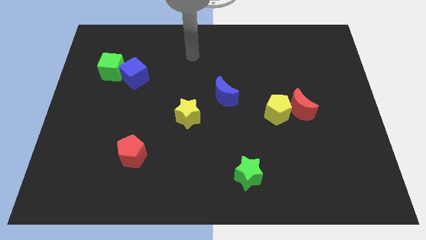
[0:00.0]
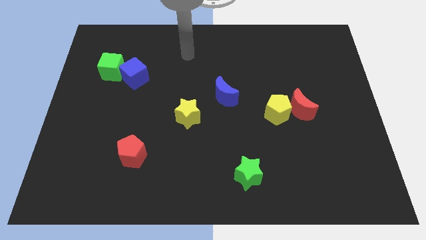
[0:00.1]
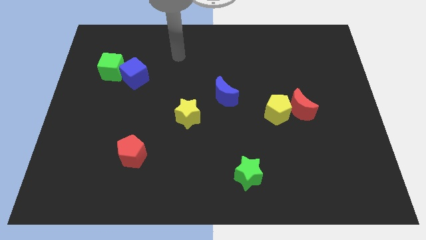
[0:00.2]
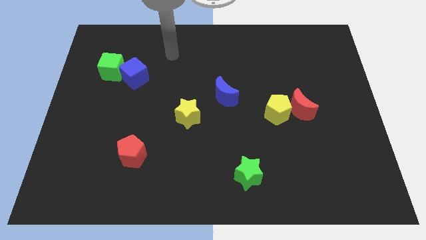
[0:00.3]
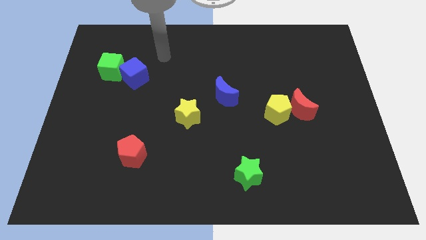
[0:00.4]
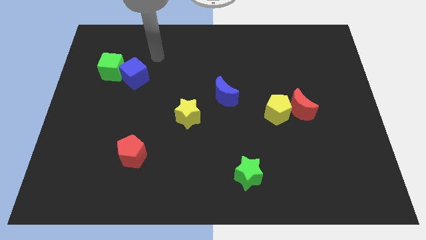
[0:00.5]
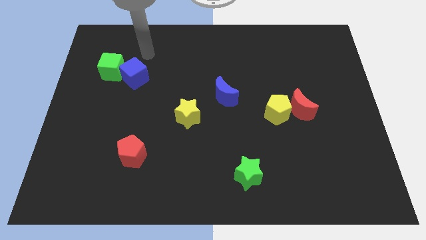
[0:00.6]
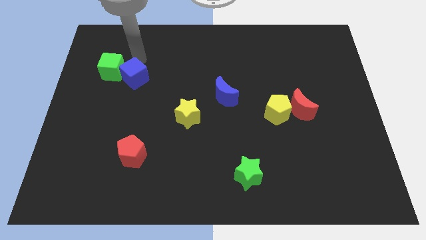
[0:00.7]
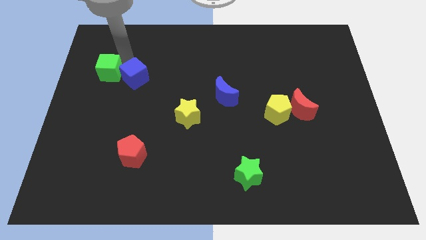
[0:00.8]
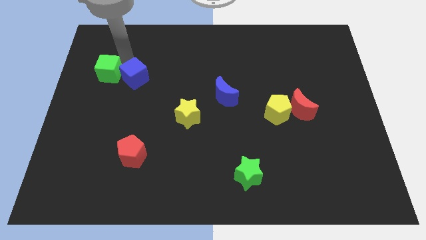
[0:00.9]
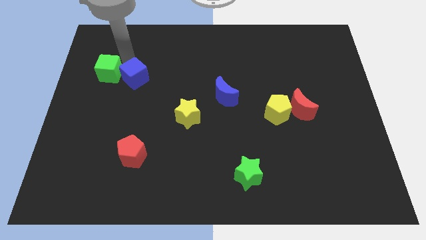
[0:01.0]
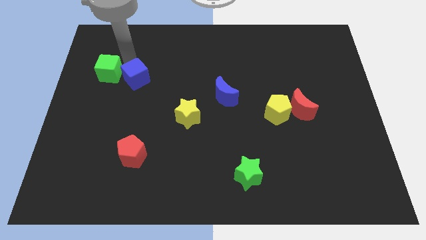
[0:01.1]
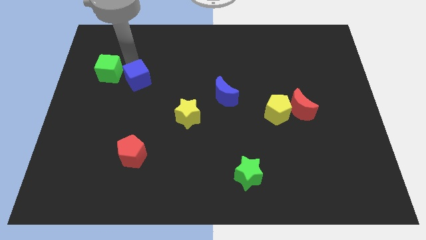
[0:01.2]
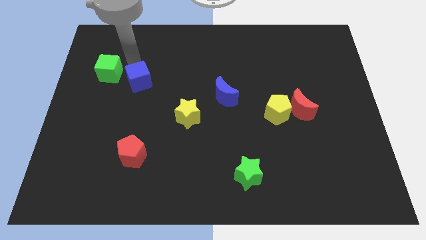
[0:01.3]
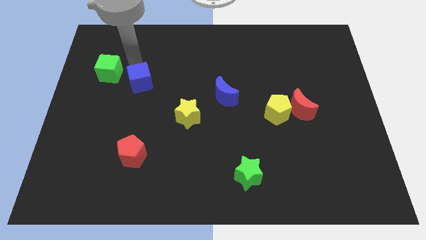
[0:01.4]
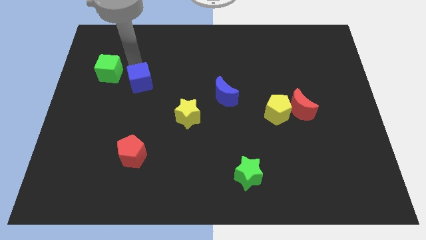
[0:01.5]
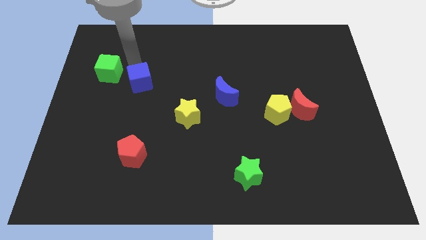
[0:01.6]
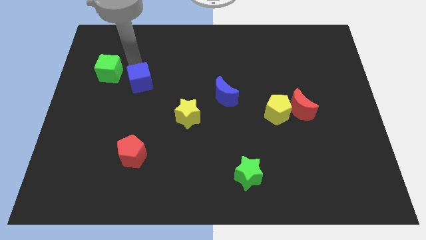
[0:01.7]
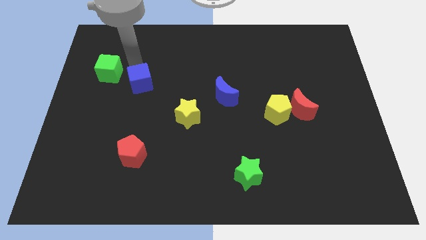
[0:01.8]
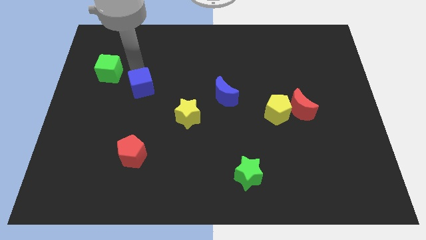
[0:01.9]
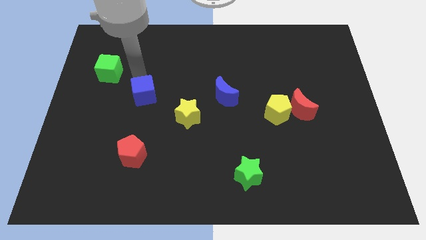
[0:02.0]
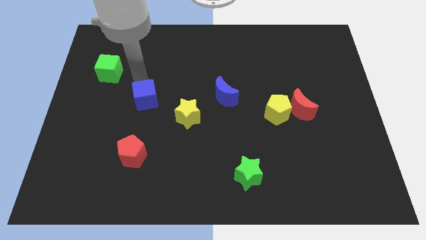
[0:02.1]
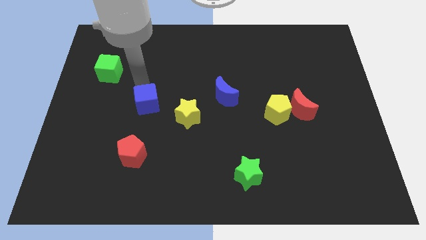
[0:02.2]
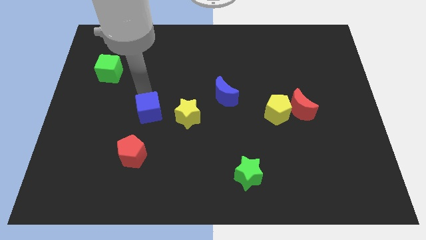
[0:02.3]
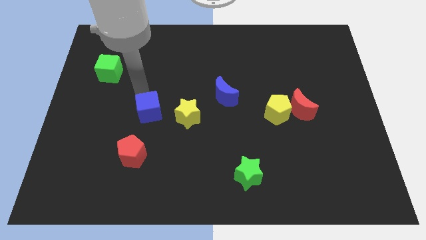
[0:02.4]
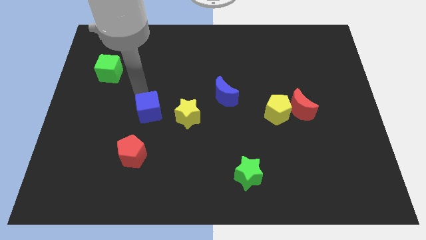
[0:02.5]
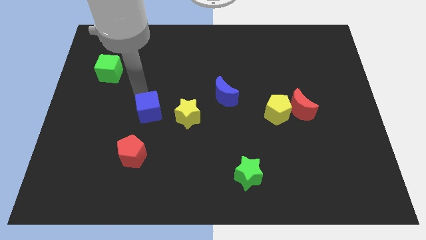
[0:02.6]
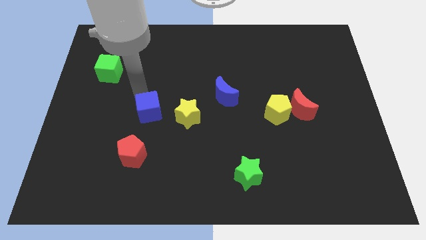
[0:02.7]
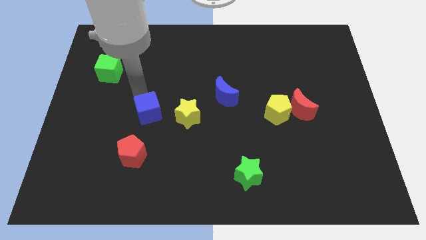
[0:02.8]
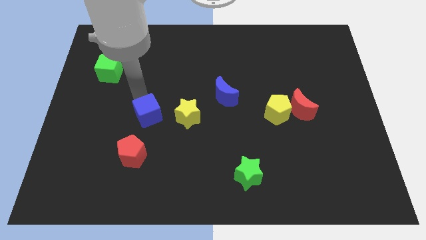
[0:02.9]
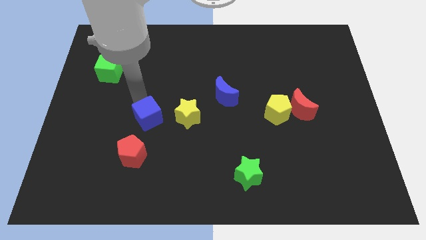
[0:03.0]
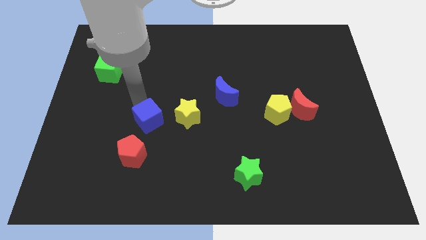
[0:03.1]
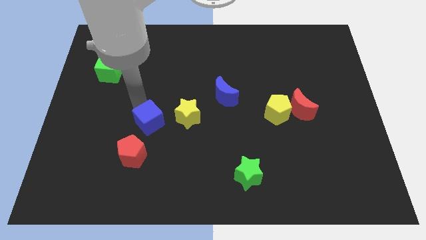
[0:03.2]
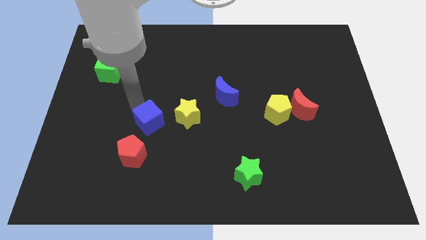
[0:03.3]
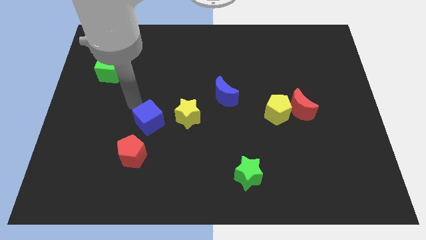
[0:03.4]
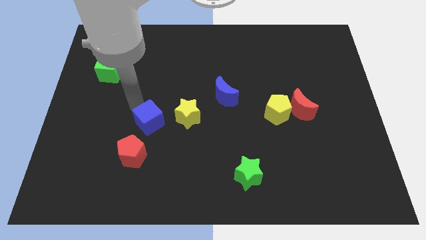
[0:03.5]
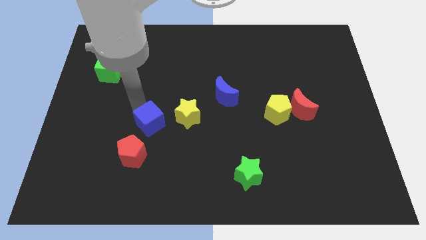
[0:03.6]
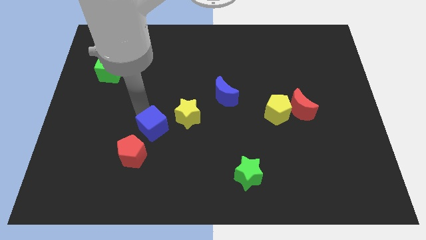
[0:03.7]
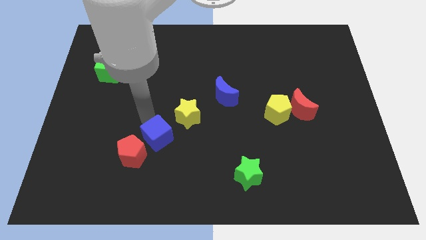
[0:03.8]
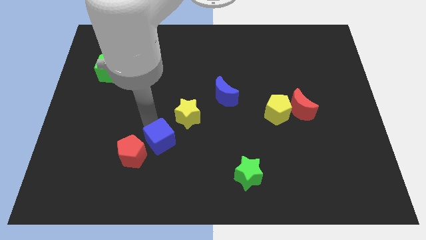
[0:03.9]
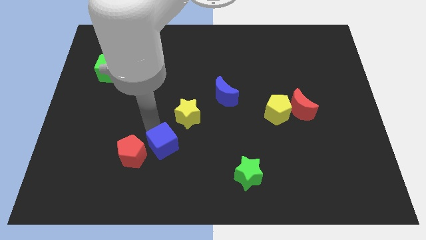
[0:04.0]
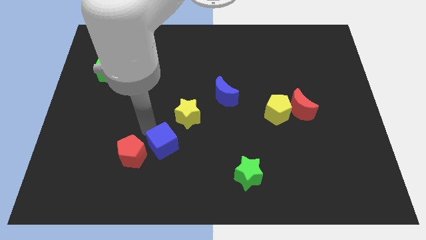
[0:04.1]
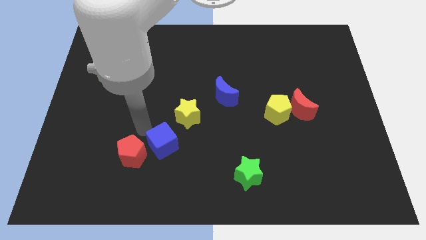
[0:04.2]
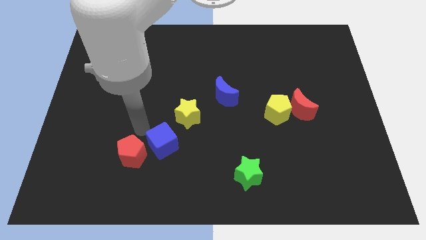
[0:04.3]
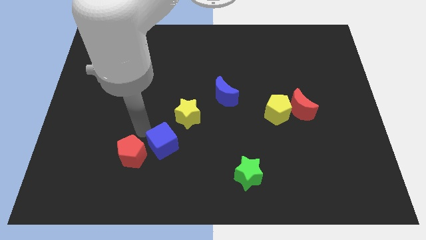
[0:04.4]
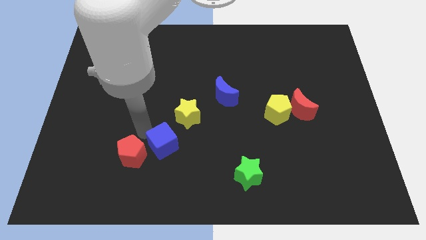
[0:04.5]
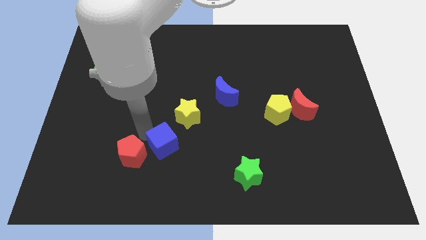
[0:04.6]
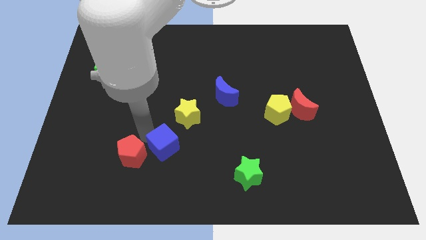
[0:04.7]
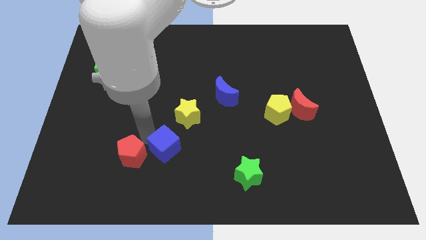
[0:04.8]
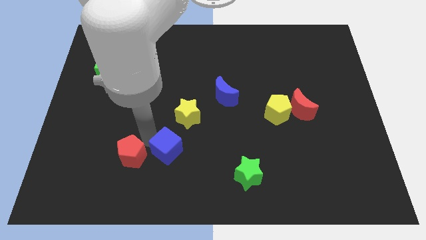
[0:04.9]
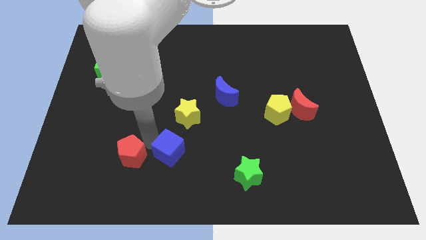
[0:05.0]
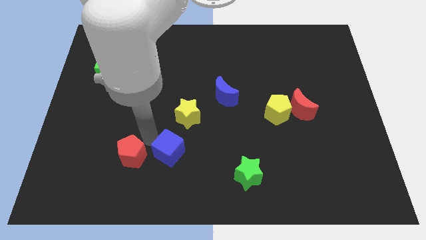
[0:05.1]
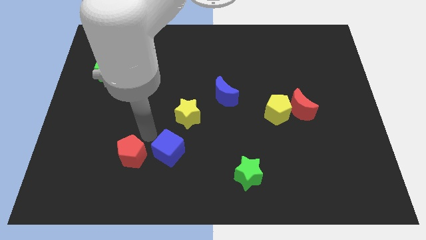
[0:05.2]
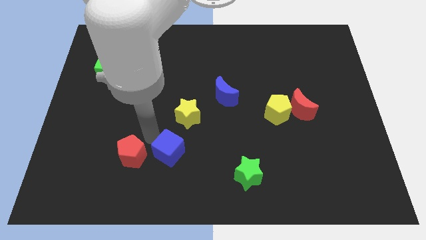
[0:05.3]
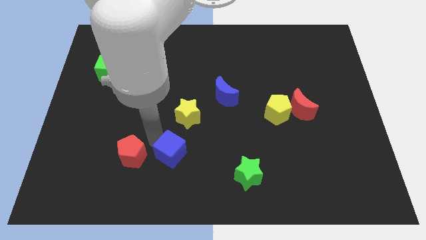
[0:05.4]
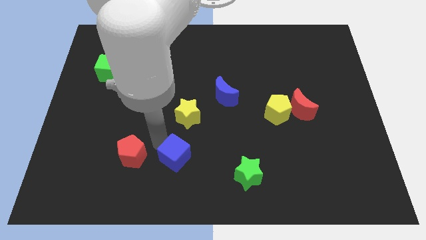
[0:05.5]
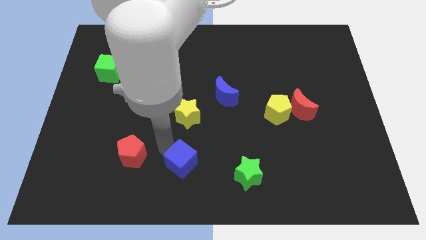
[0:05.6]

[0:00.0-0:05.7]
move the blue cube just left of the green star

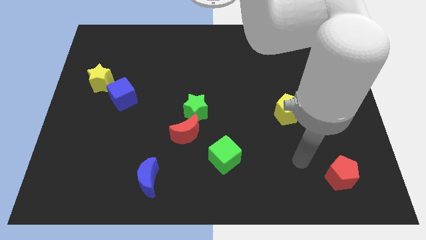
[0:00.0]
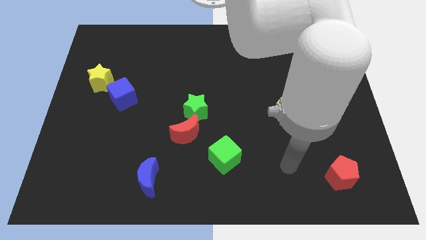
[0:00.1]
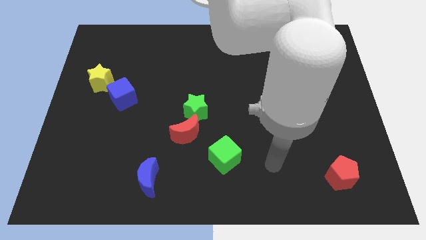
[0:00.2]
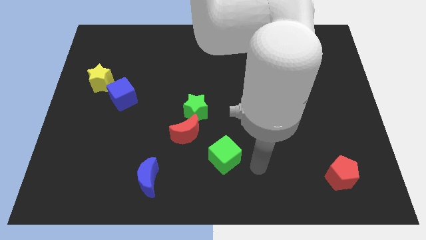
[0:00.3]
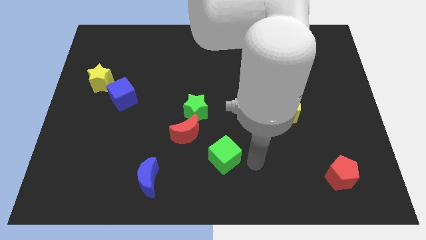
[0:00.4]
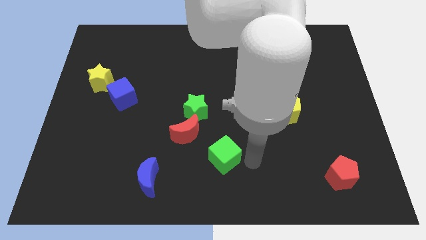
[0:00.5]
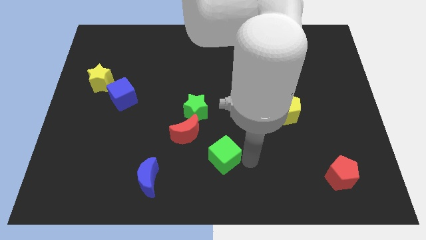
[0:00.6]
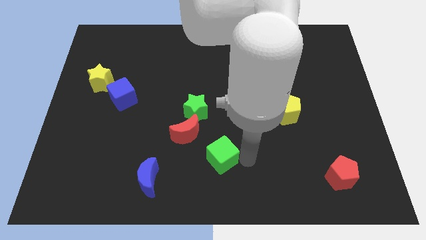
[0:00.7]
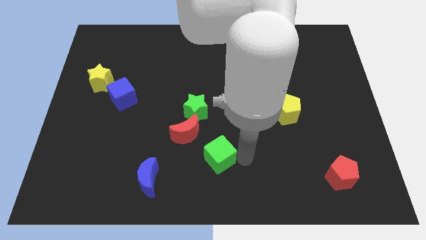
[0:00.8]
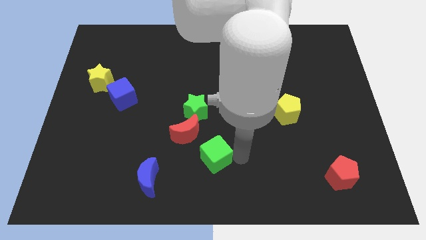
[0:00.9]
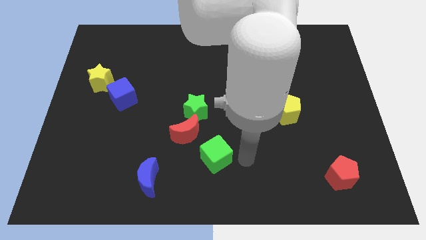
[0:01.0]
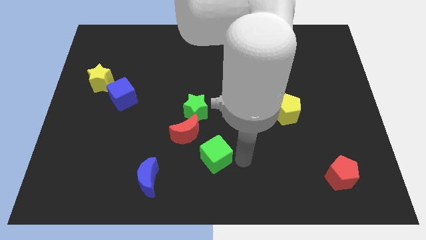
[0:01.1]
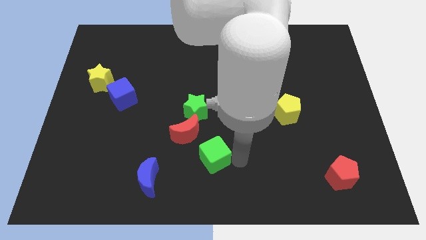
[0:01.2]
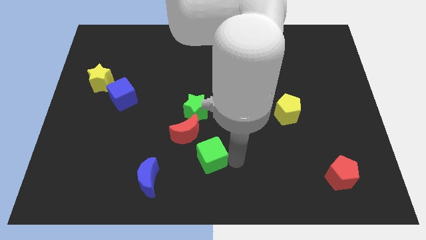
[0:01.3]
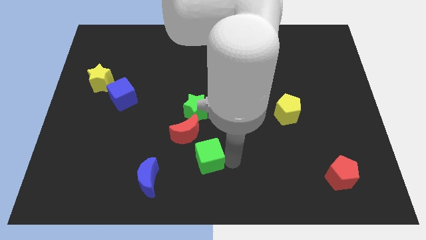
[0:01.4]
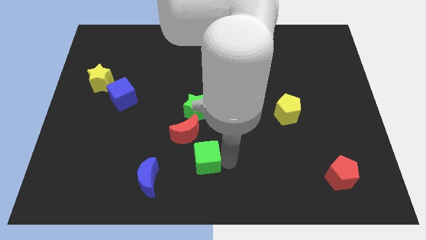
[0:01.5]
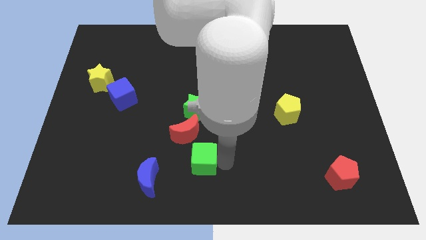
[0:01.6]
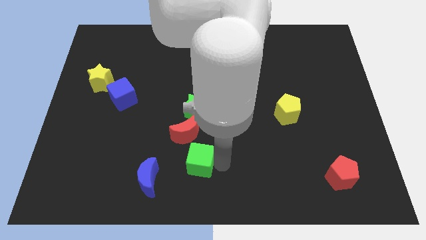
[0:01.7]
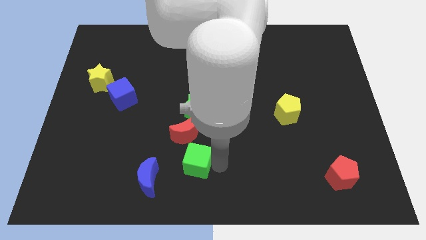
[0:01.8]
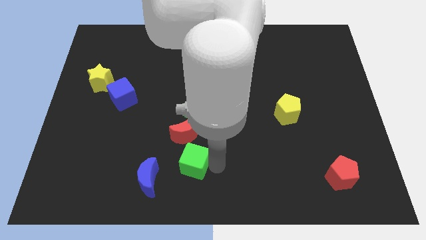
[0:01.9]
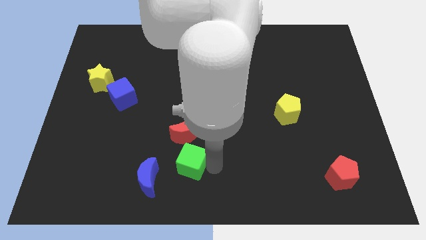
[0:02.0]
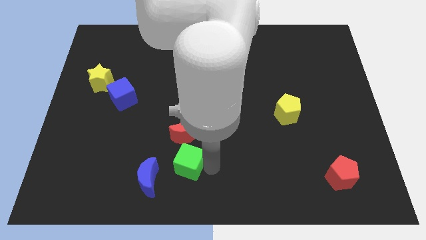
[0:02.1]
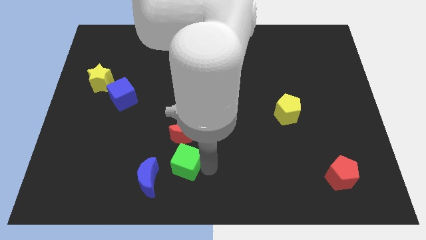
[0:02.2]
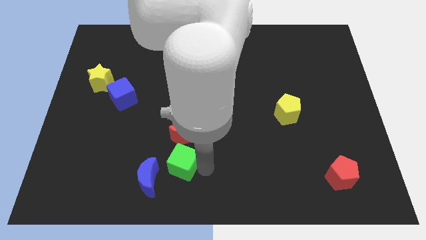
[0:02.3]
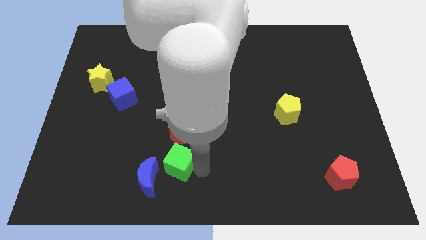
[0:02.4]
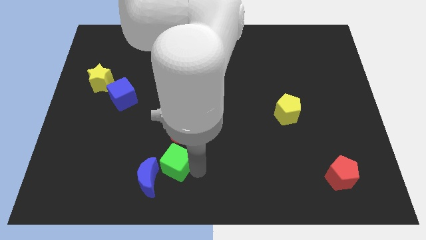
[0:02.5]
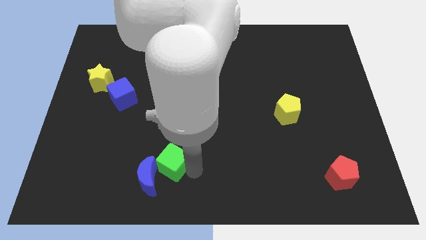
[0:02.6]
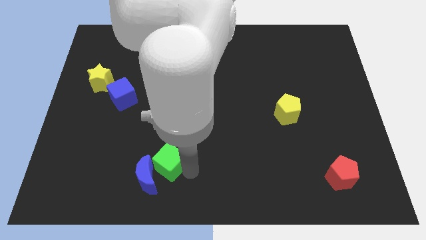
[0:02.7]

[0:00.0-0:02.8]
move the green cube to the top side of the blue moon
